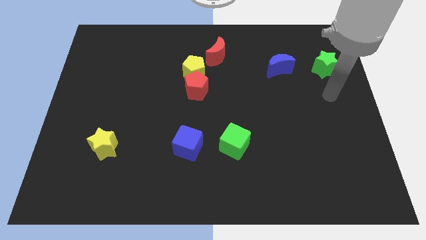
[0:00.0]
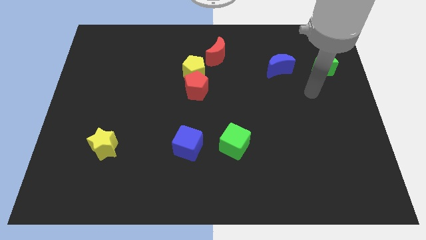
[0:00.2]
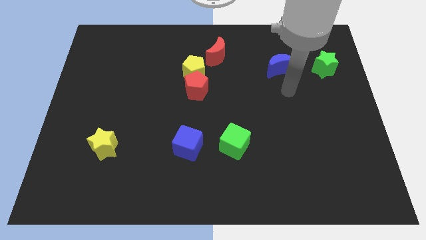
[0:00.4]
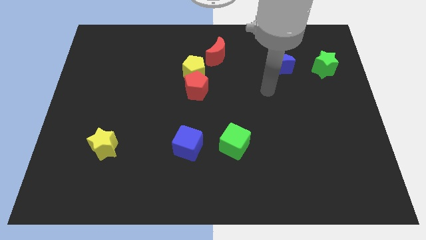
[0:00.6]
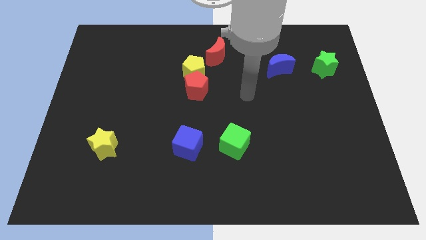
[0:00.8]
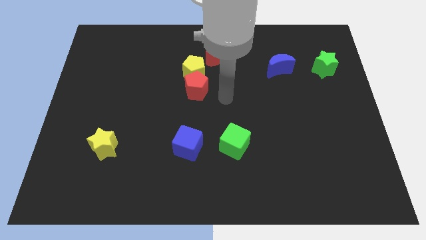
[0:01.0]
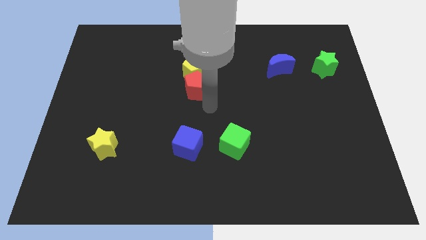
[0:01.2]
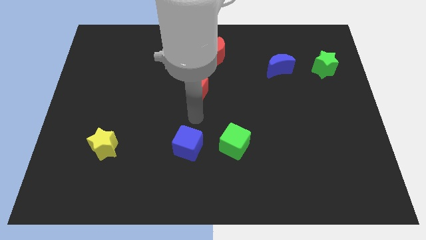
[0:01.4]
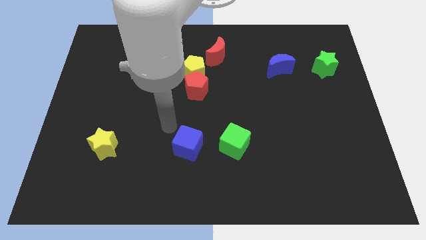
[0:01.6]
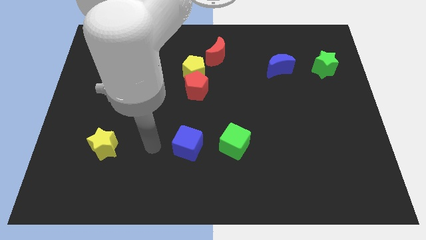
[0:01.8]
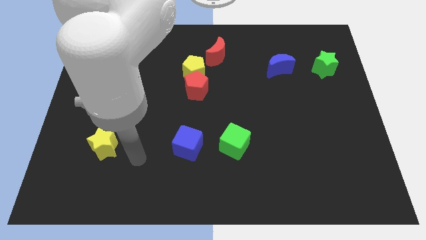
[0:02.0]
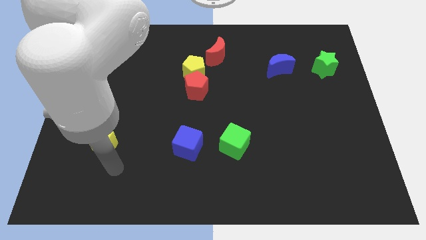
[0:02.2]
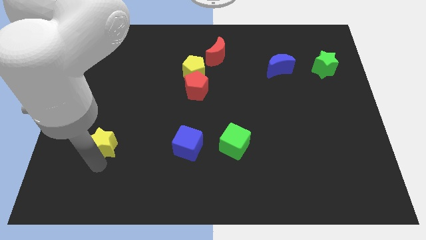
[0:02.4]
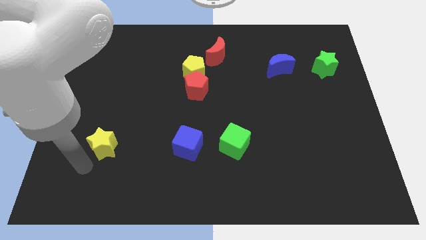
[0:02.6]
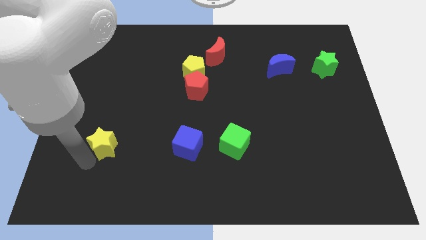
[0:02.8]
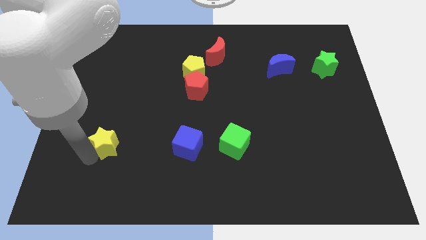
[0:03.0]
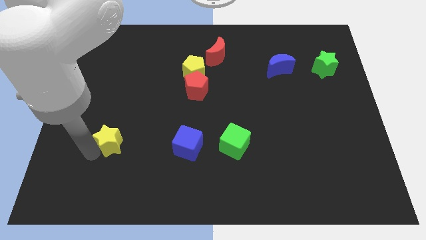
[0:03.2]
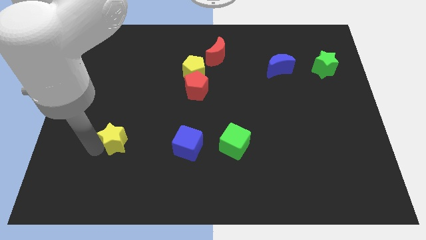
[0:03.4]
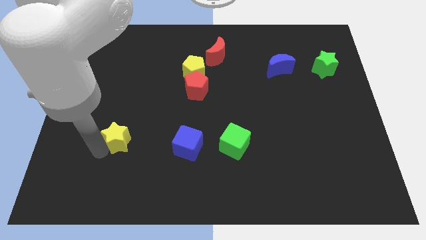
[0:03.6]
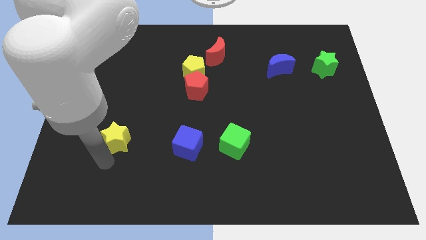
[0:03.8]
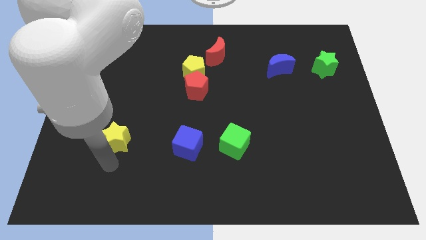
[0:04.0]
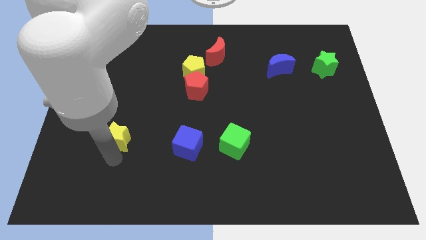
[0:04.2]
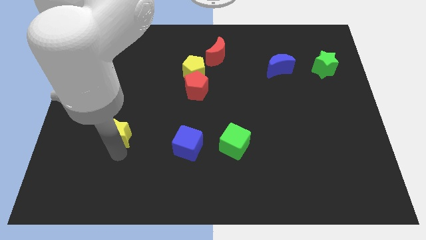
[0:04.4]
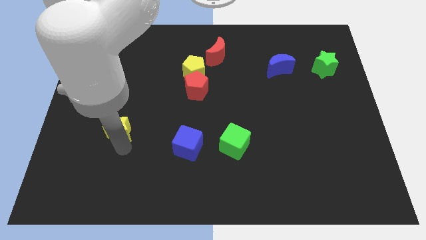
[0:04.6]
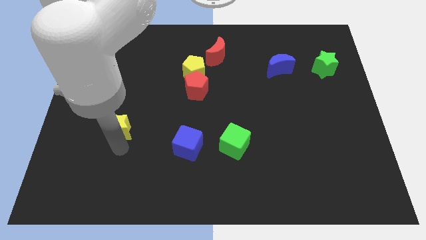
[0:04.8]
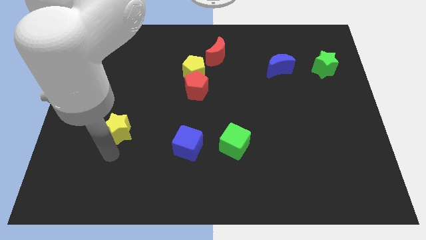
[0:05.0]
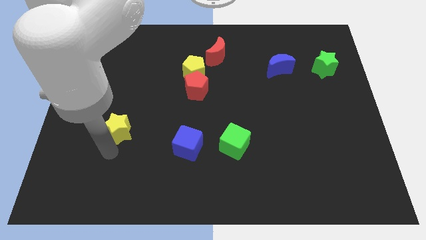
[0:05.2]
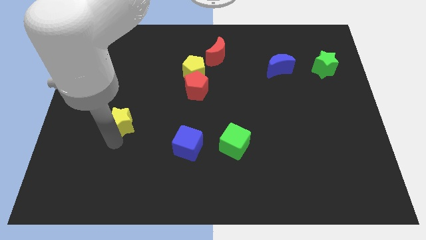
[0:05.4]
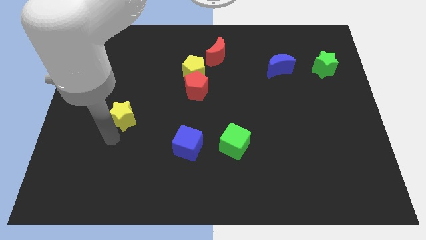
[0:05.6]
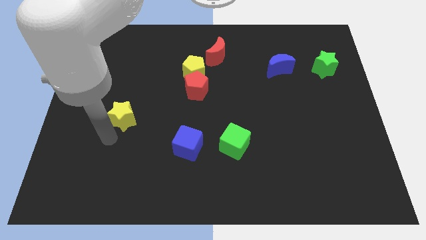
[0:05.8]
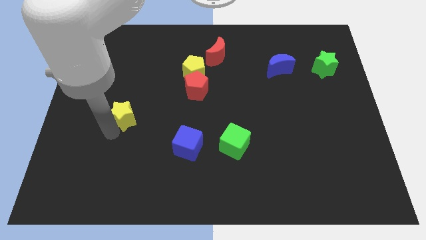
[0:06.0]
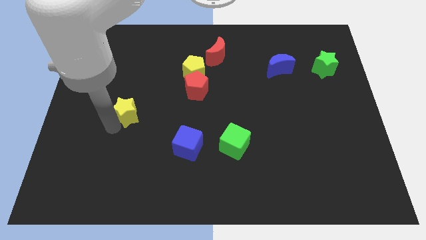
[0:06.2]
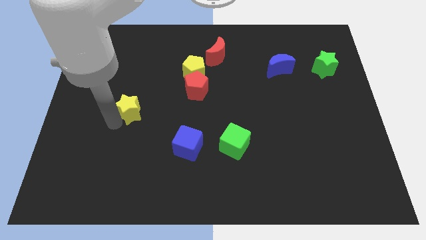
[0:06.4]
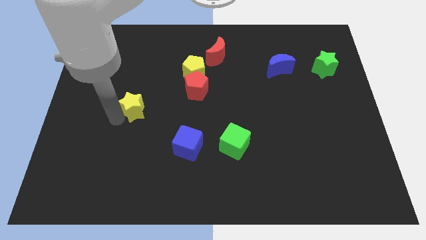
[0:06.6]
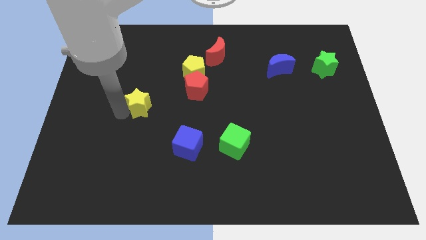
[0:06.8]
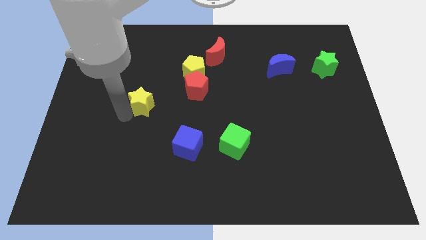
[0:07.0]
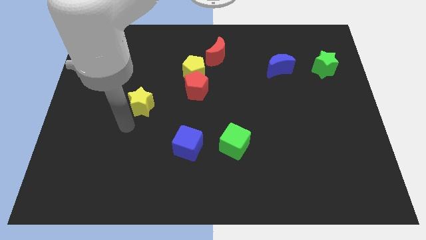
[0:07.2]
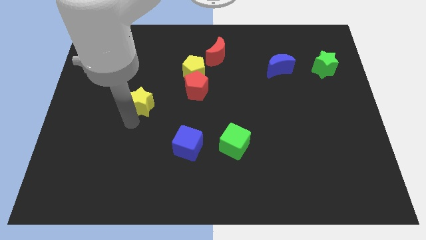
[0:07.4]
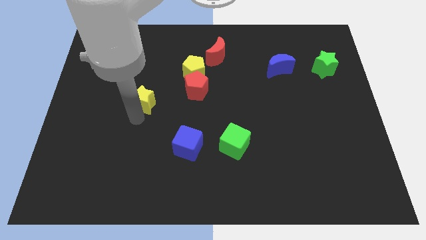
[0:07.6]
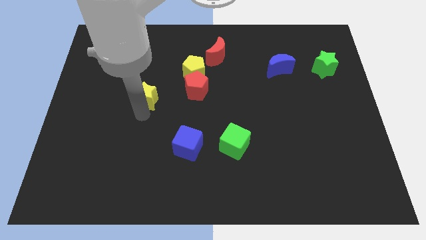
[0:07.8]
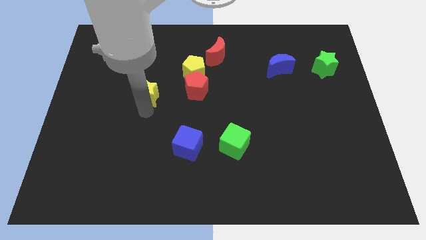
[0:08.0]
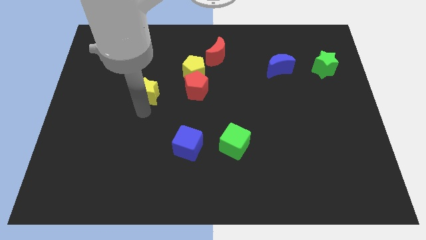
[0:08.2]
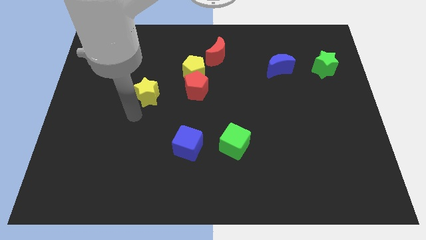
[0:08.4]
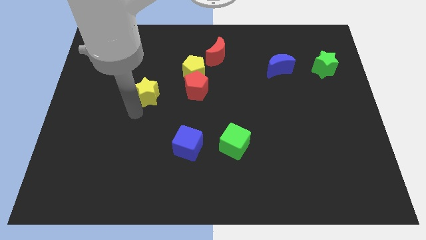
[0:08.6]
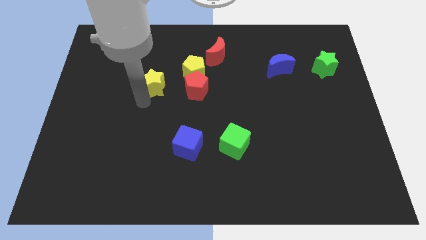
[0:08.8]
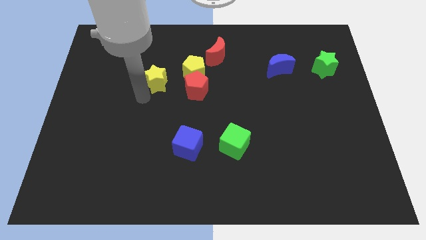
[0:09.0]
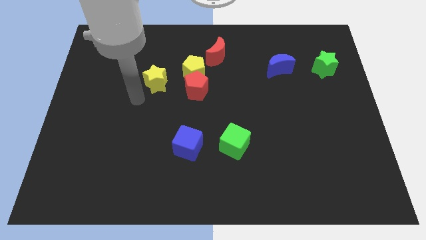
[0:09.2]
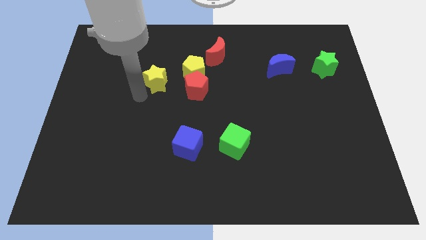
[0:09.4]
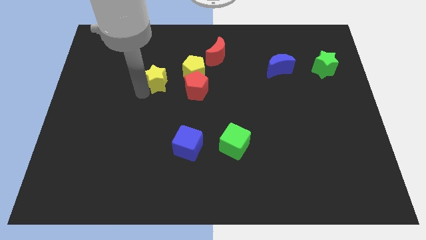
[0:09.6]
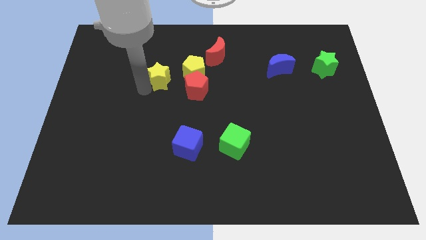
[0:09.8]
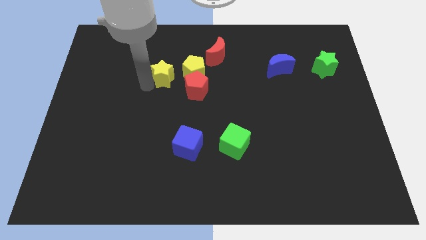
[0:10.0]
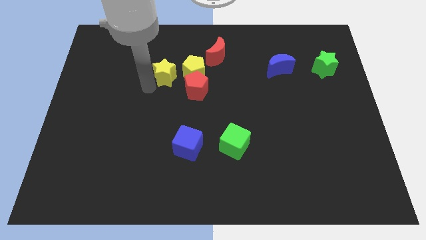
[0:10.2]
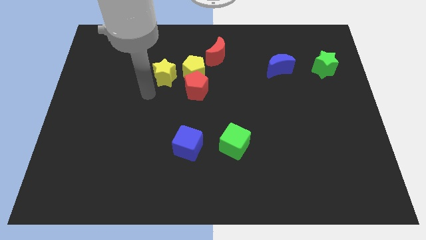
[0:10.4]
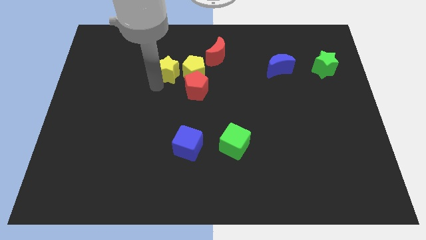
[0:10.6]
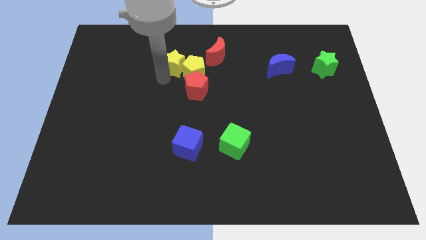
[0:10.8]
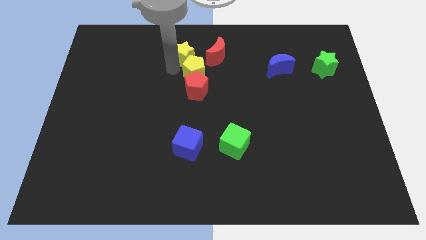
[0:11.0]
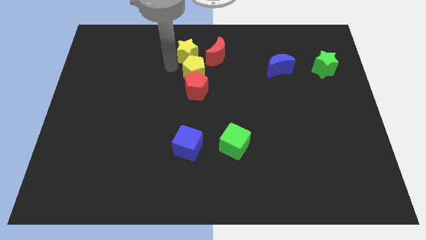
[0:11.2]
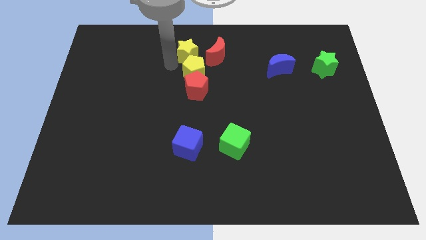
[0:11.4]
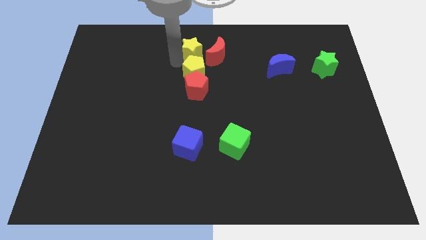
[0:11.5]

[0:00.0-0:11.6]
move the yellow star to the top

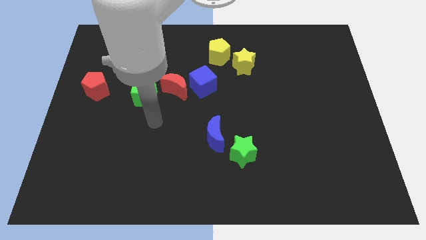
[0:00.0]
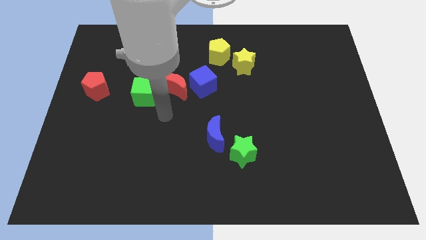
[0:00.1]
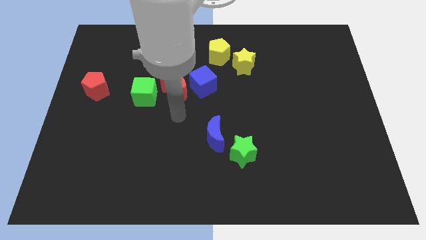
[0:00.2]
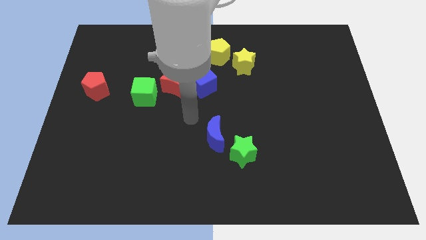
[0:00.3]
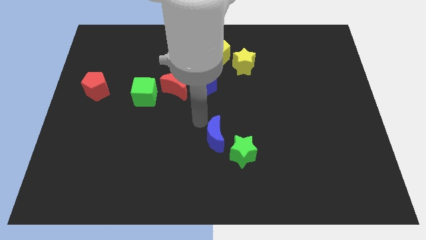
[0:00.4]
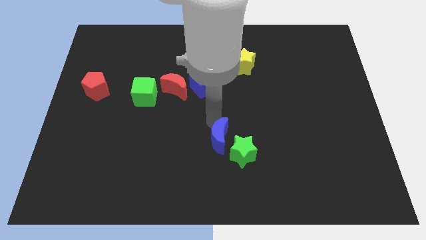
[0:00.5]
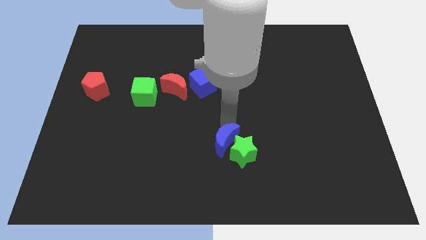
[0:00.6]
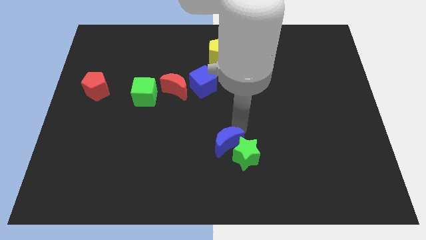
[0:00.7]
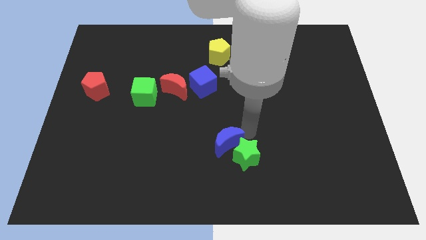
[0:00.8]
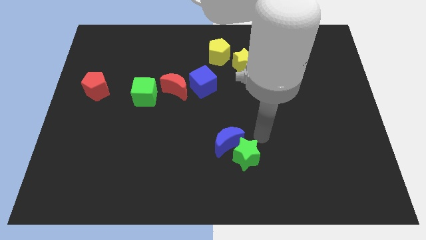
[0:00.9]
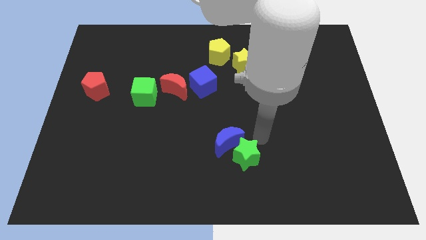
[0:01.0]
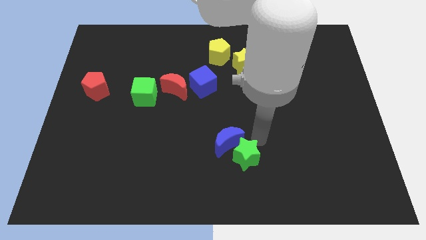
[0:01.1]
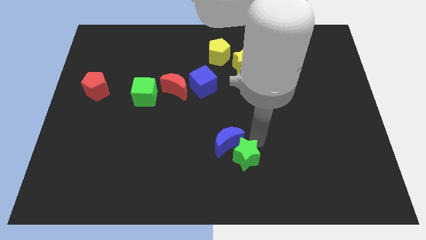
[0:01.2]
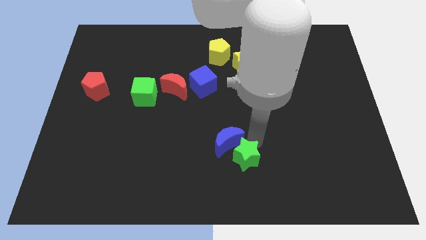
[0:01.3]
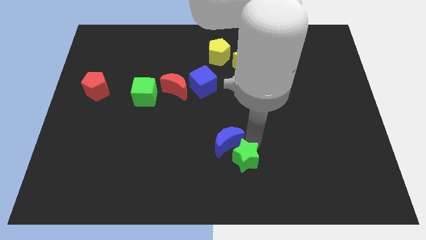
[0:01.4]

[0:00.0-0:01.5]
move the green star to the bottom

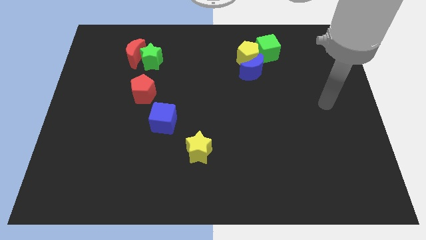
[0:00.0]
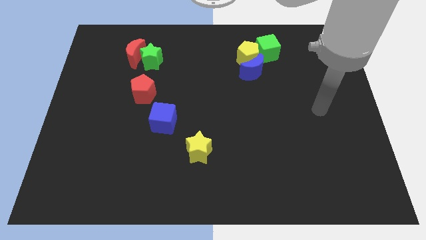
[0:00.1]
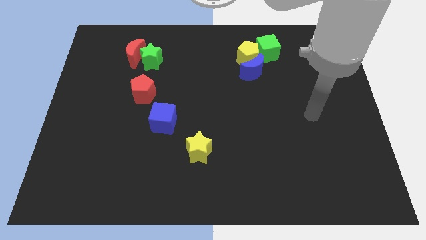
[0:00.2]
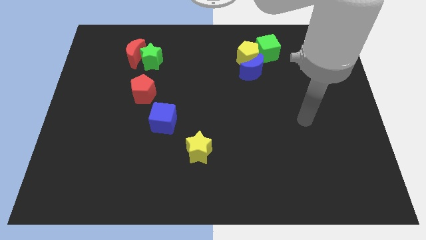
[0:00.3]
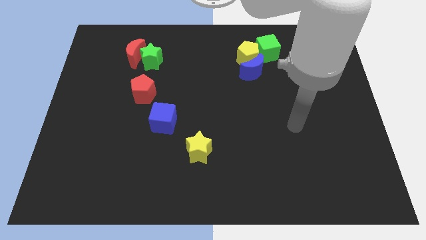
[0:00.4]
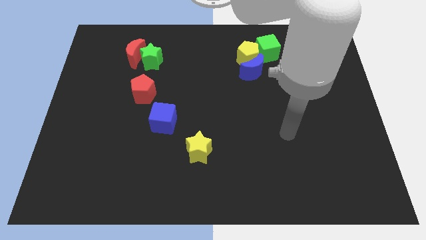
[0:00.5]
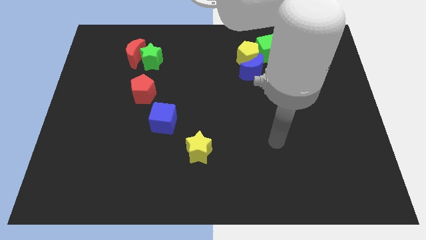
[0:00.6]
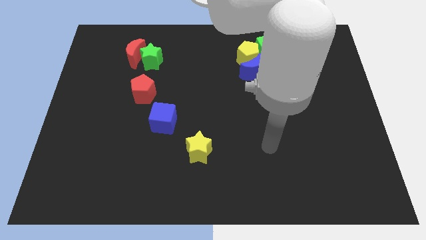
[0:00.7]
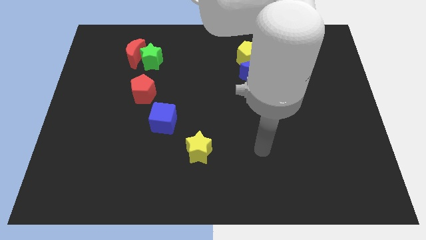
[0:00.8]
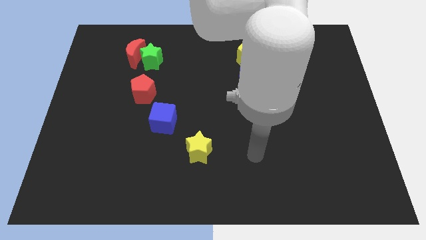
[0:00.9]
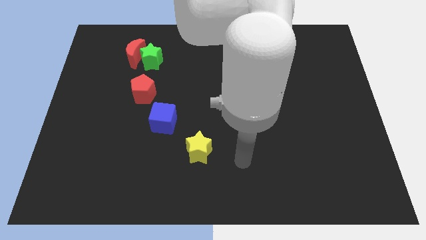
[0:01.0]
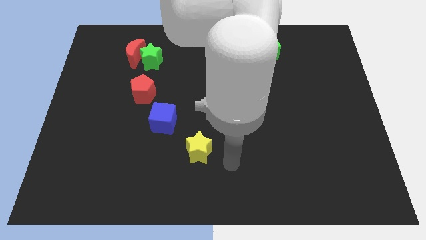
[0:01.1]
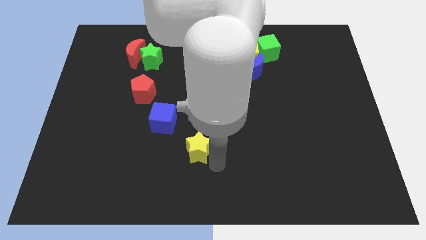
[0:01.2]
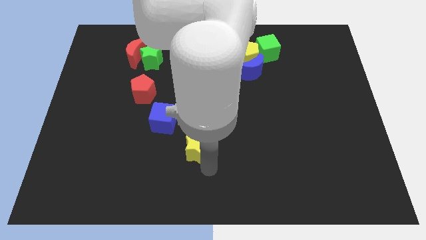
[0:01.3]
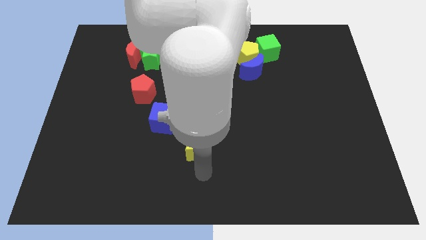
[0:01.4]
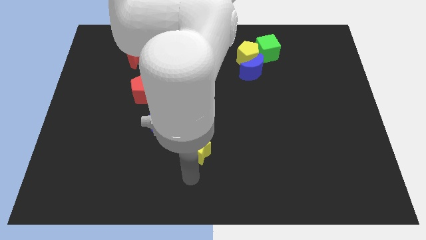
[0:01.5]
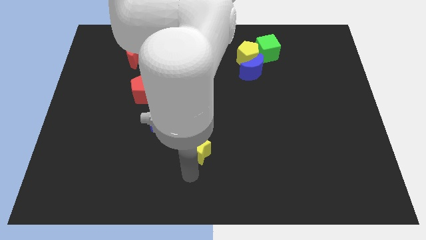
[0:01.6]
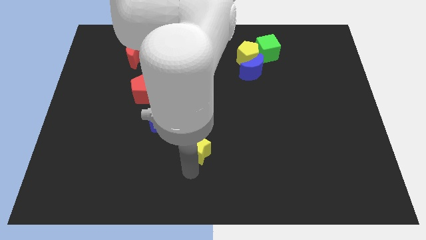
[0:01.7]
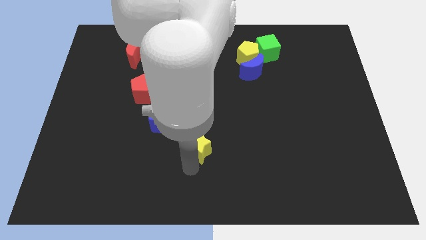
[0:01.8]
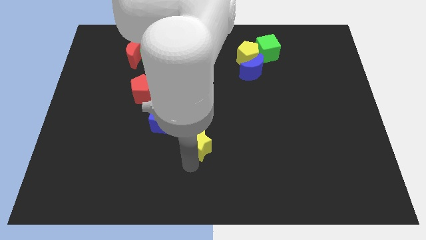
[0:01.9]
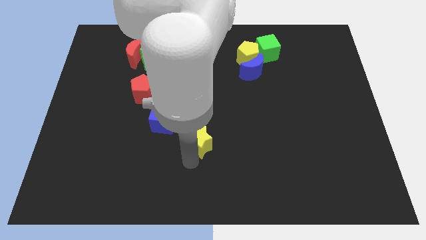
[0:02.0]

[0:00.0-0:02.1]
push the yellow star to the middle
